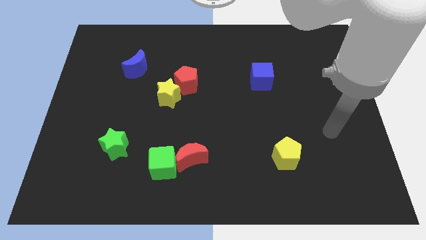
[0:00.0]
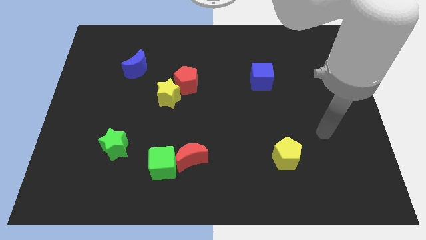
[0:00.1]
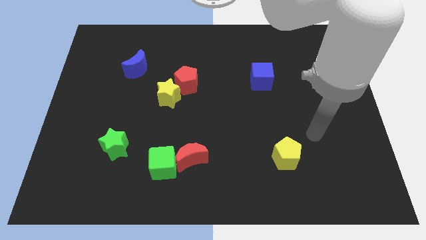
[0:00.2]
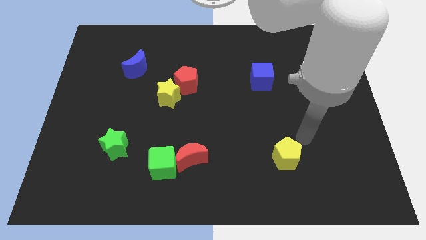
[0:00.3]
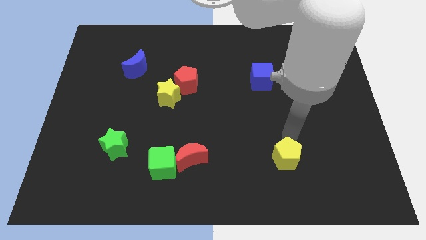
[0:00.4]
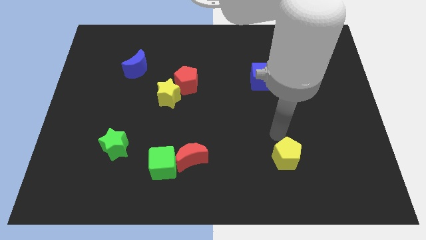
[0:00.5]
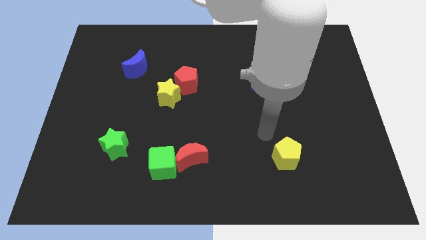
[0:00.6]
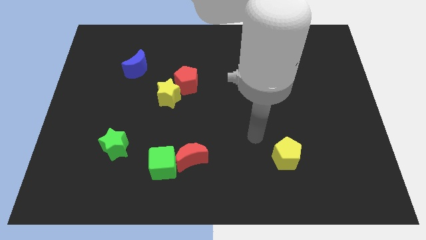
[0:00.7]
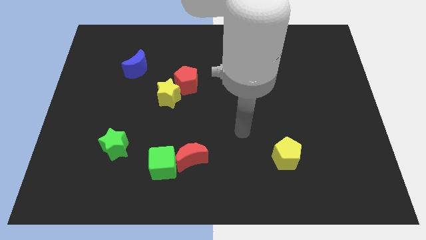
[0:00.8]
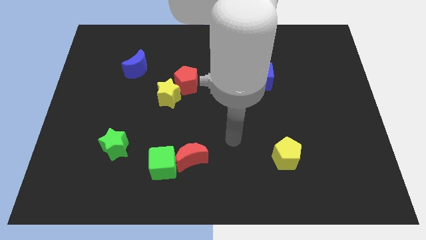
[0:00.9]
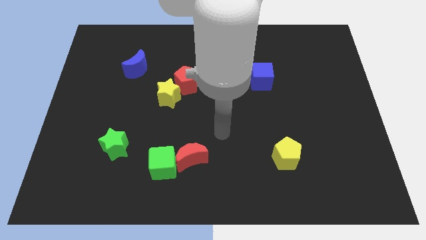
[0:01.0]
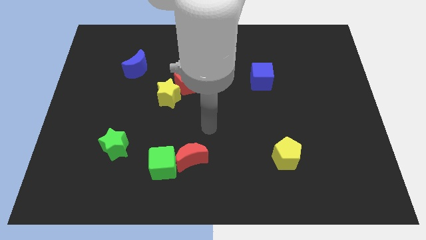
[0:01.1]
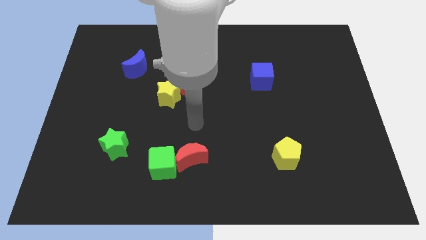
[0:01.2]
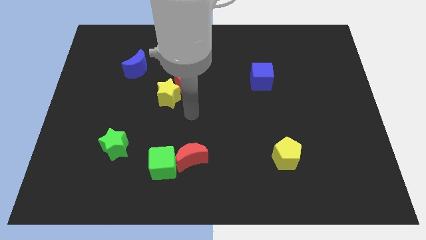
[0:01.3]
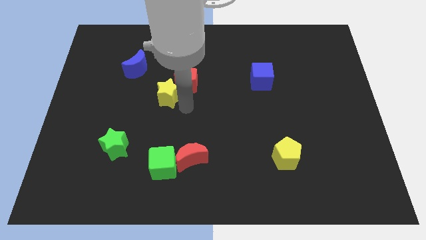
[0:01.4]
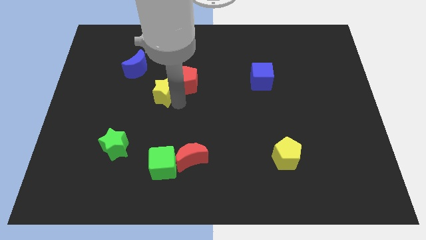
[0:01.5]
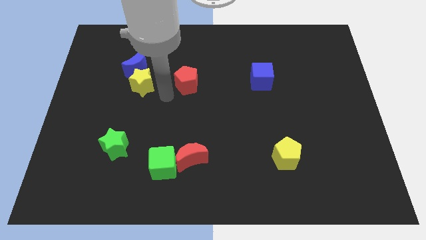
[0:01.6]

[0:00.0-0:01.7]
pull the red pentagon apart from the yellow star

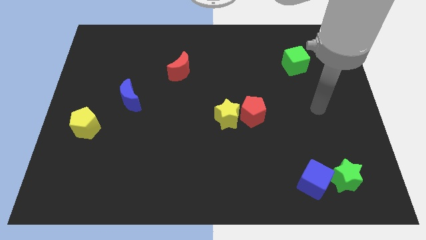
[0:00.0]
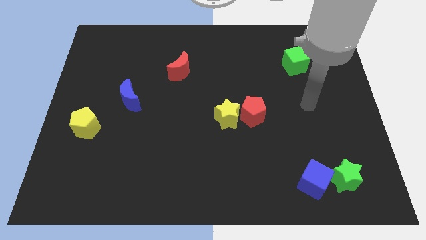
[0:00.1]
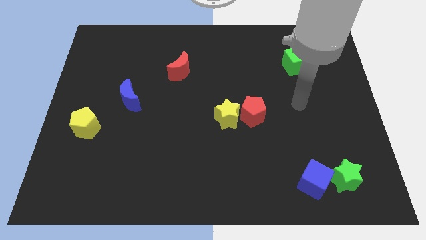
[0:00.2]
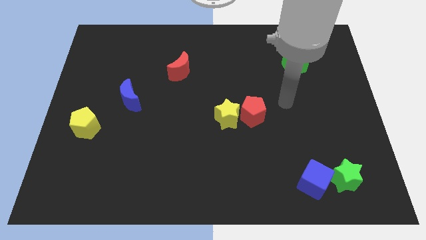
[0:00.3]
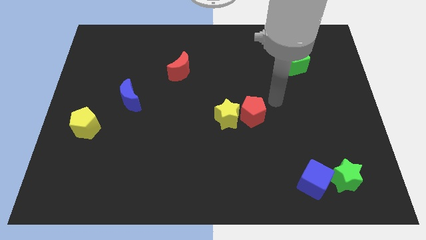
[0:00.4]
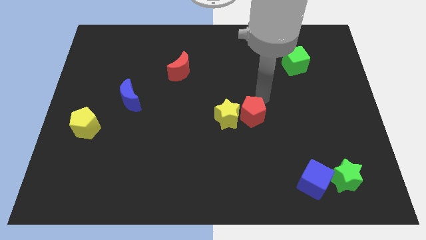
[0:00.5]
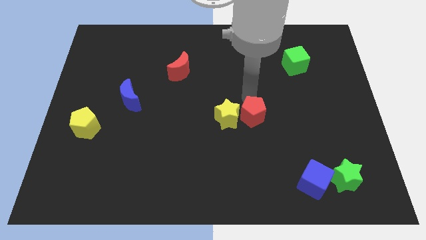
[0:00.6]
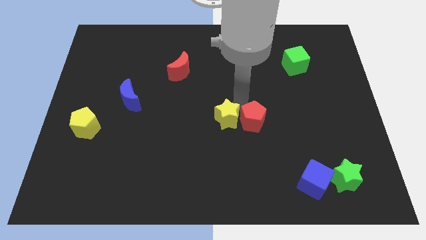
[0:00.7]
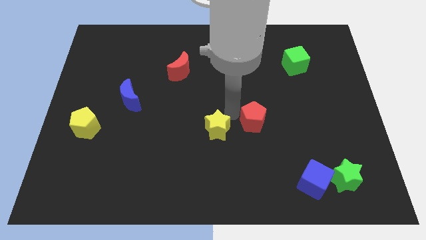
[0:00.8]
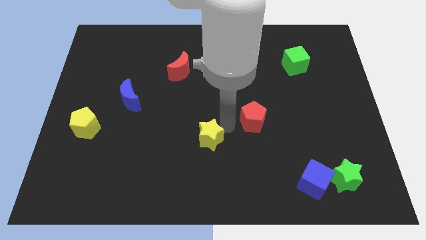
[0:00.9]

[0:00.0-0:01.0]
move the red pentagon away from the yellow star

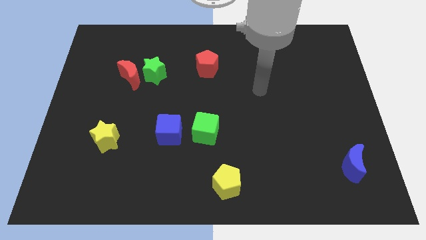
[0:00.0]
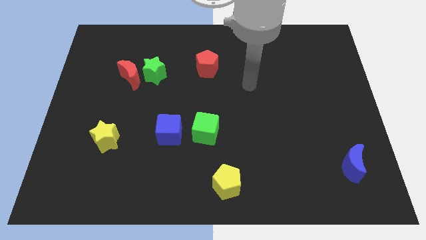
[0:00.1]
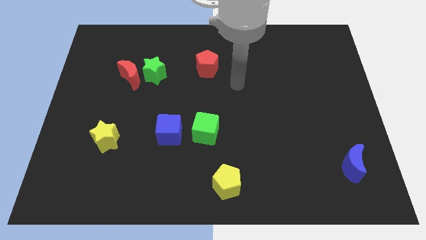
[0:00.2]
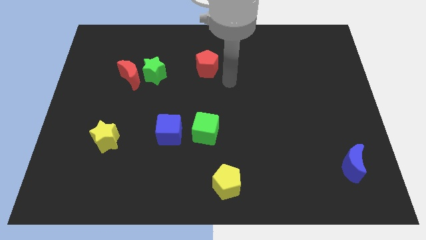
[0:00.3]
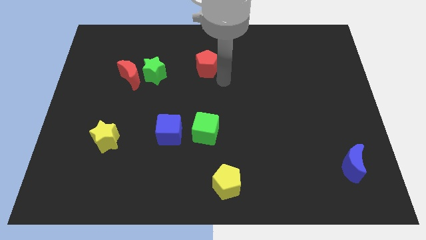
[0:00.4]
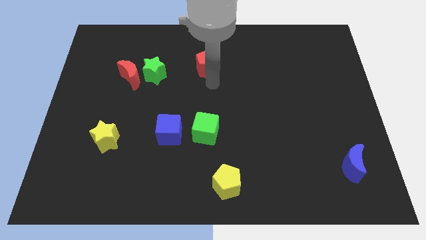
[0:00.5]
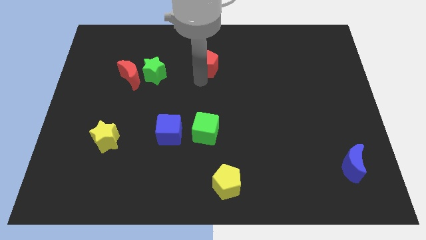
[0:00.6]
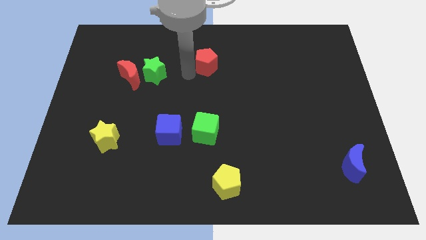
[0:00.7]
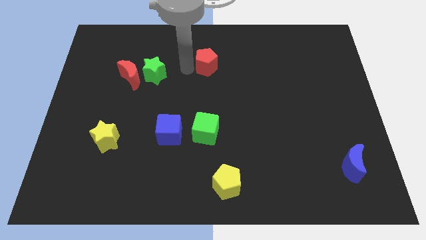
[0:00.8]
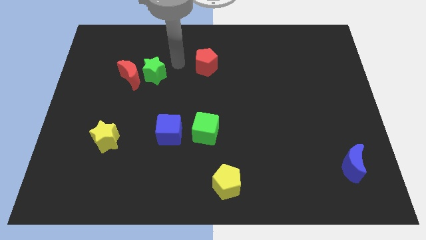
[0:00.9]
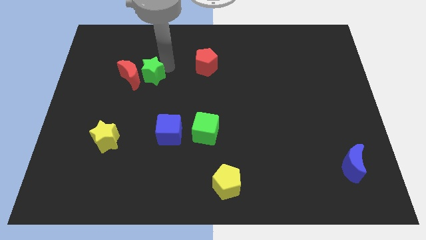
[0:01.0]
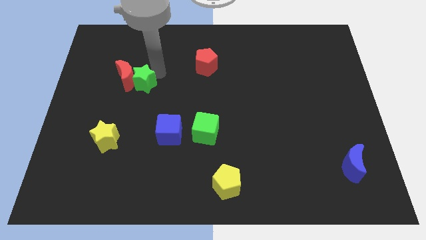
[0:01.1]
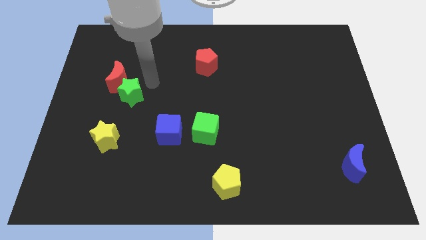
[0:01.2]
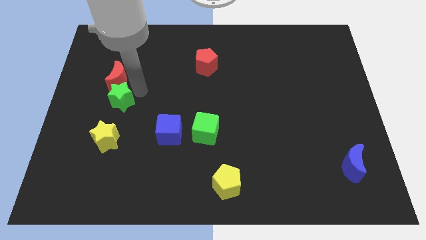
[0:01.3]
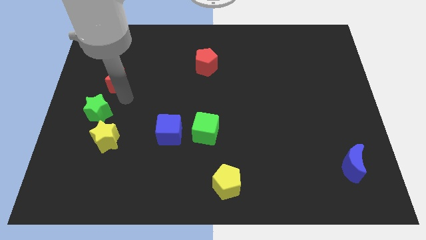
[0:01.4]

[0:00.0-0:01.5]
separate the red moon from the green star

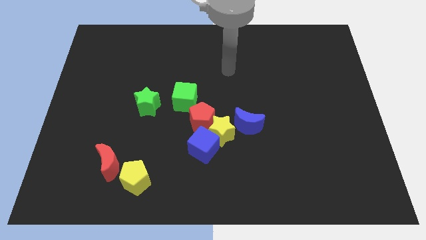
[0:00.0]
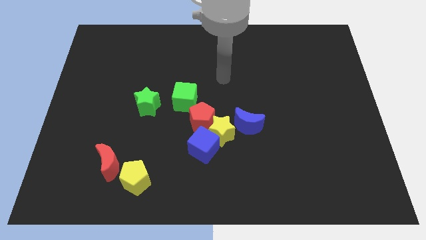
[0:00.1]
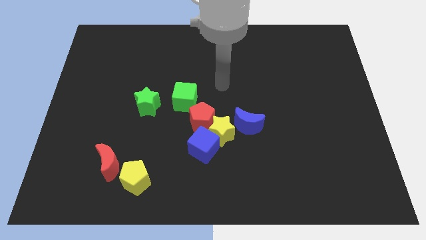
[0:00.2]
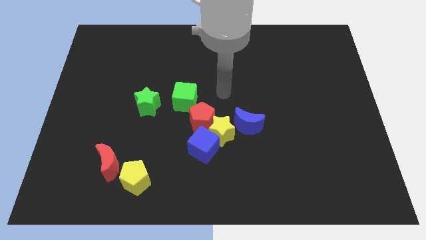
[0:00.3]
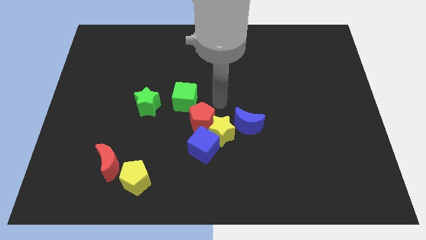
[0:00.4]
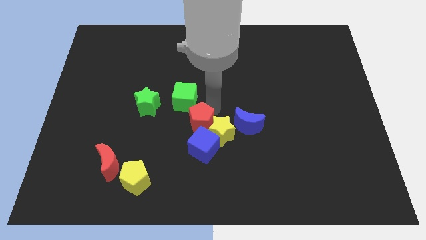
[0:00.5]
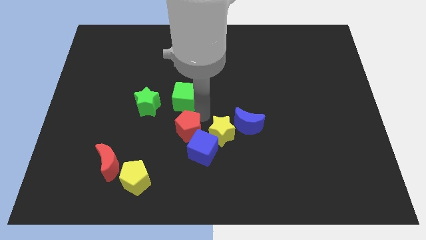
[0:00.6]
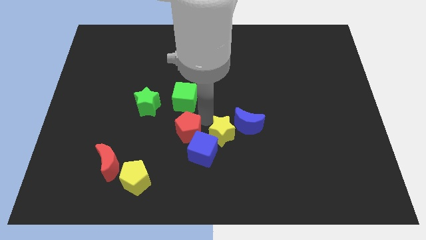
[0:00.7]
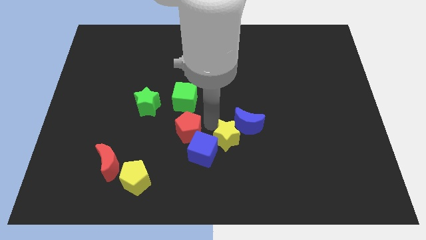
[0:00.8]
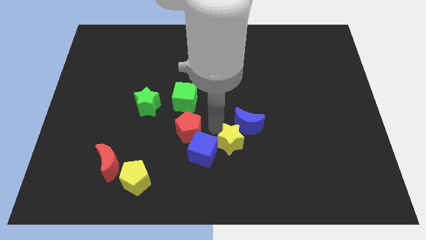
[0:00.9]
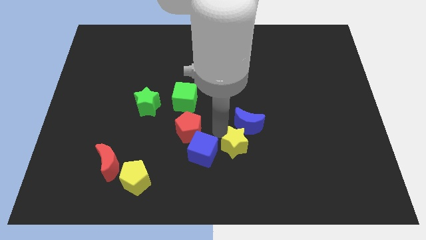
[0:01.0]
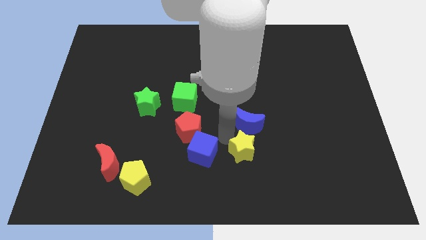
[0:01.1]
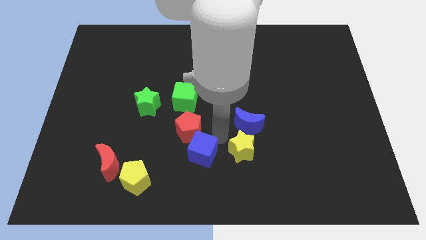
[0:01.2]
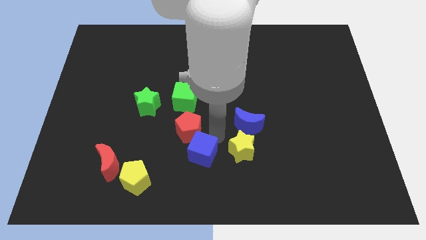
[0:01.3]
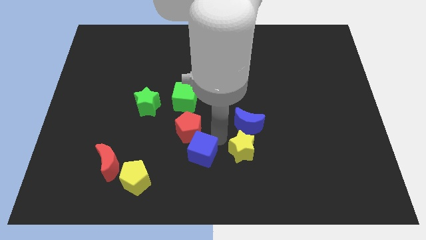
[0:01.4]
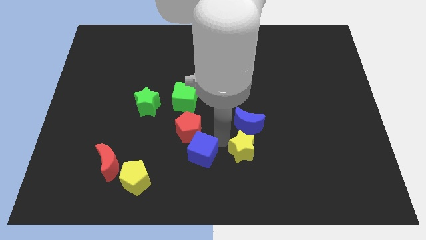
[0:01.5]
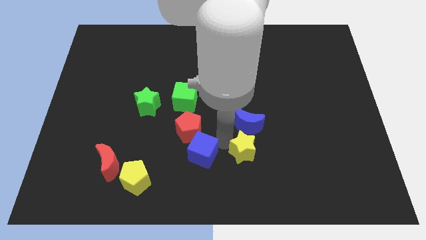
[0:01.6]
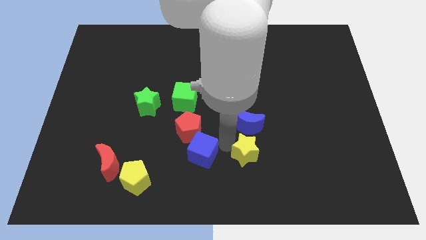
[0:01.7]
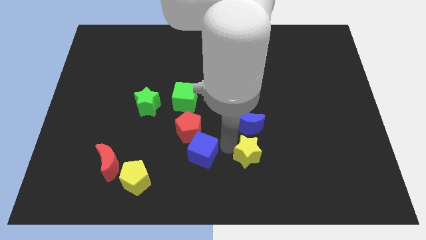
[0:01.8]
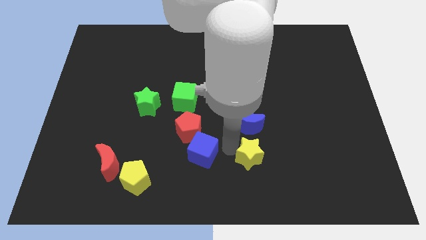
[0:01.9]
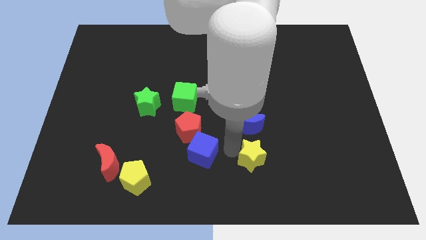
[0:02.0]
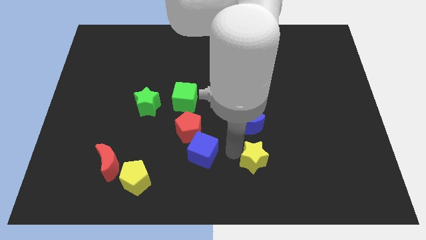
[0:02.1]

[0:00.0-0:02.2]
pull the yellow star apart from the red pentagon, blue cube, and blue moon

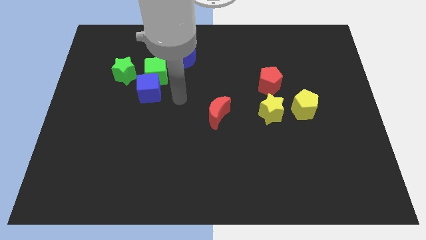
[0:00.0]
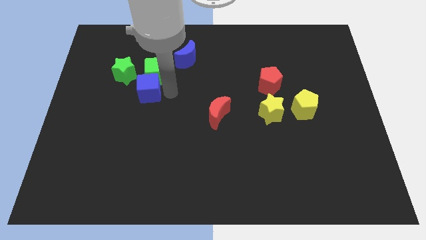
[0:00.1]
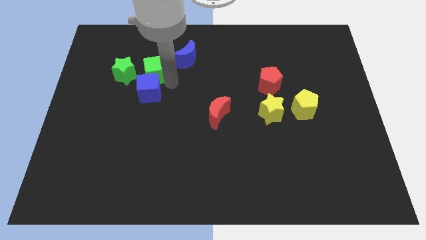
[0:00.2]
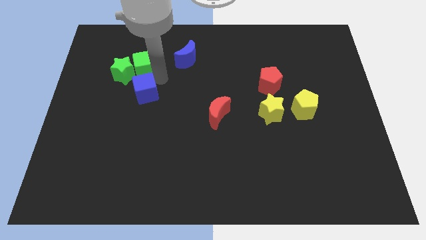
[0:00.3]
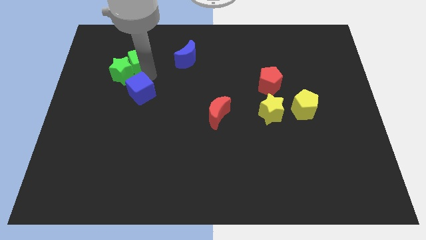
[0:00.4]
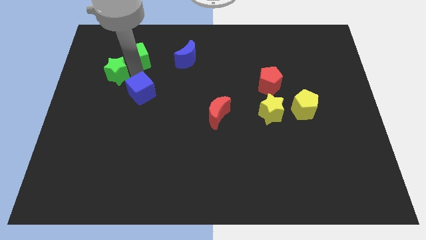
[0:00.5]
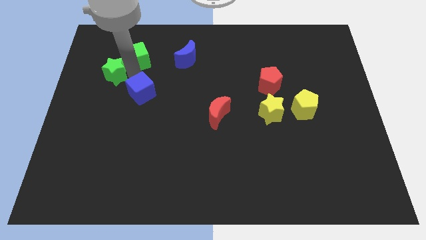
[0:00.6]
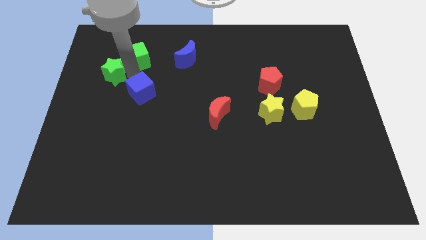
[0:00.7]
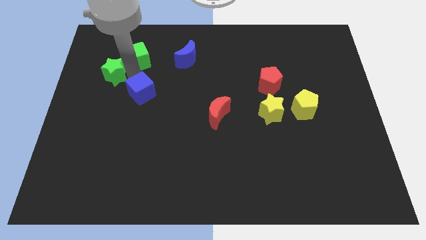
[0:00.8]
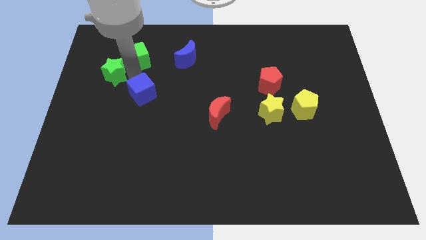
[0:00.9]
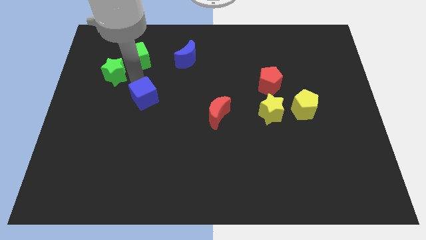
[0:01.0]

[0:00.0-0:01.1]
separate the blue cube from the green cube and green star

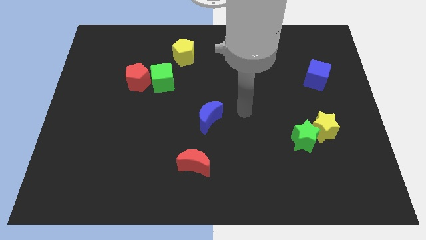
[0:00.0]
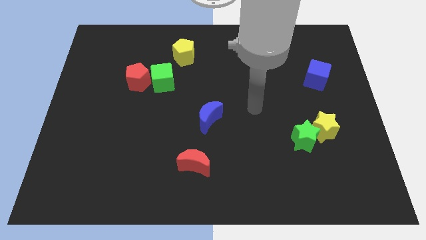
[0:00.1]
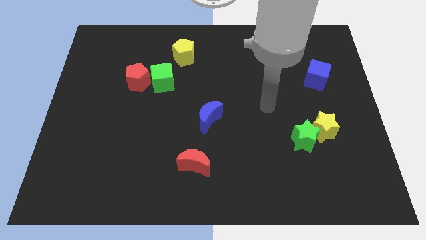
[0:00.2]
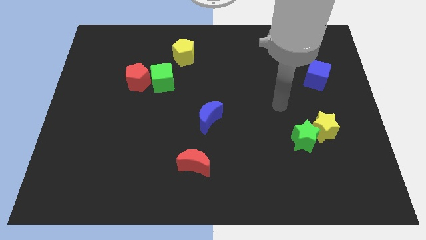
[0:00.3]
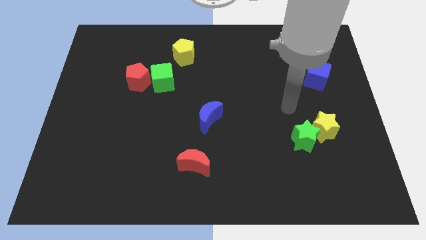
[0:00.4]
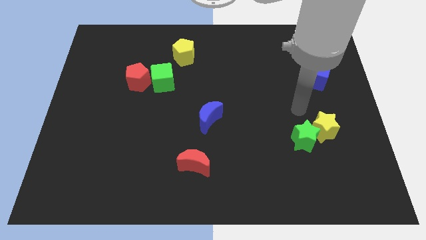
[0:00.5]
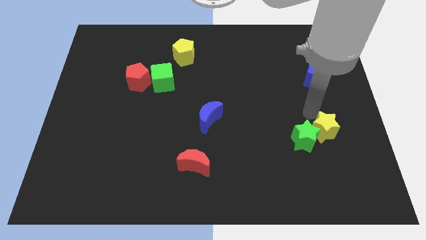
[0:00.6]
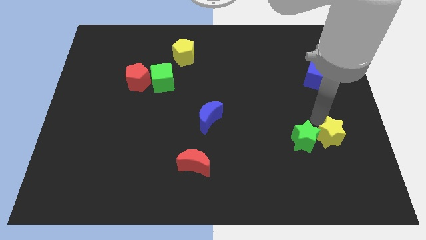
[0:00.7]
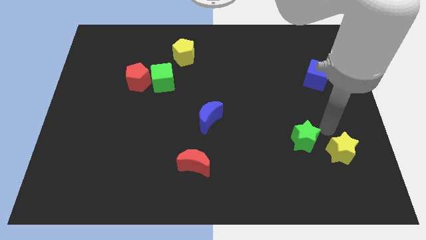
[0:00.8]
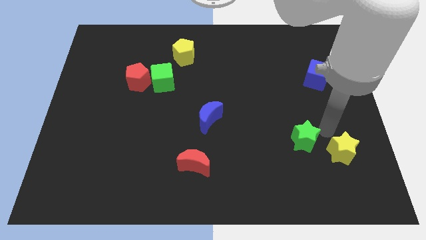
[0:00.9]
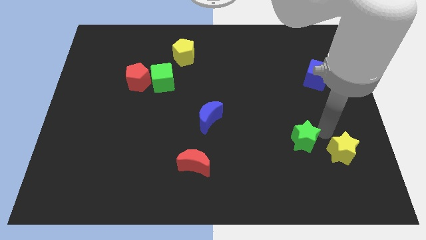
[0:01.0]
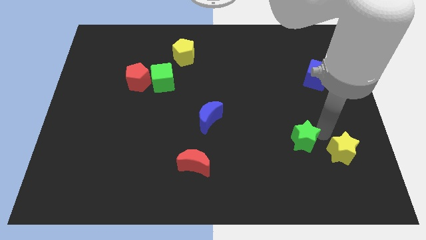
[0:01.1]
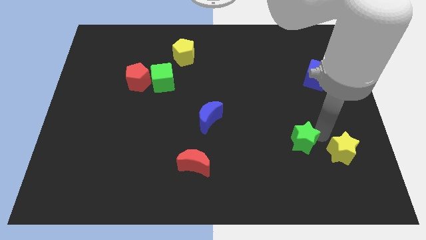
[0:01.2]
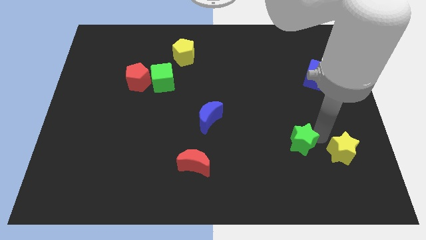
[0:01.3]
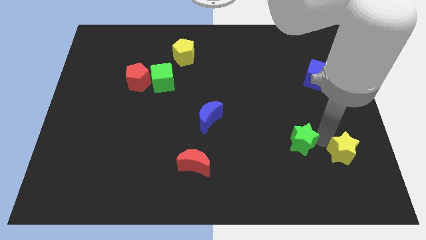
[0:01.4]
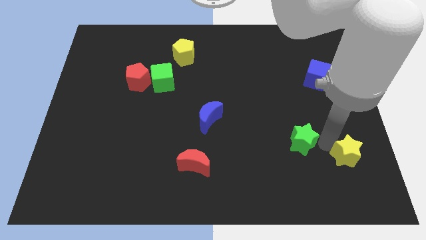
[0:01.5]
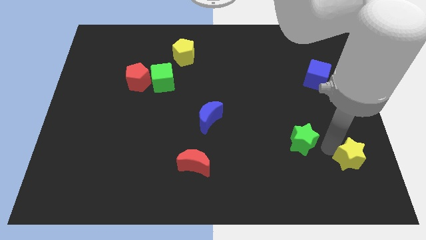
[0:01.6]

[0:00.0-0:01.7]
pull the green star apart from the yellow star

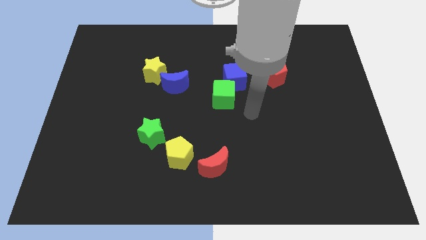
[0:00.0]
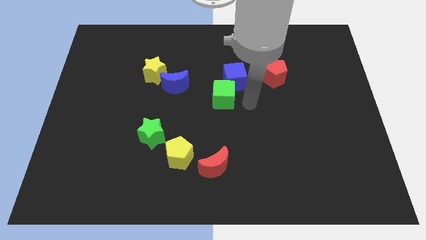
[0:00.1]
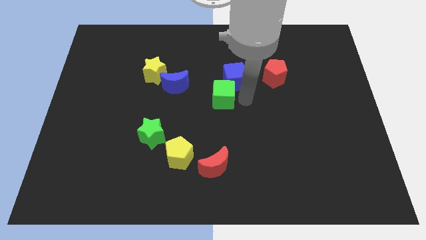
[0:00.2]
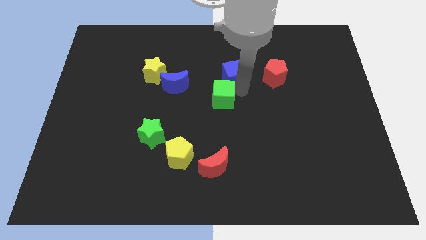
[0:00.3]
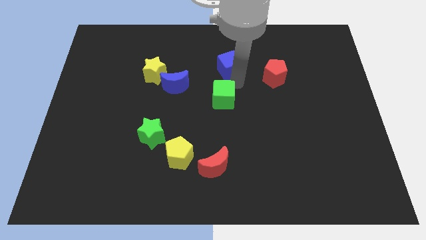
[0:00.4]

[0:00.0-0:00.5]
separate the green cube from the blue cube
